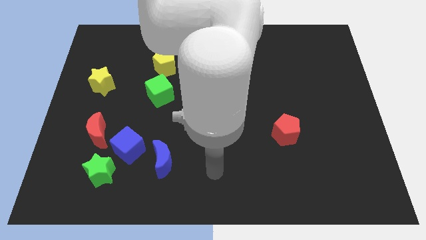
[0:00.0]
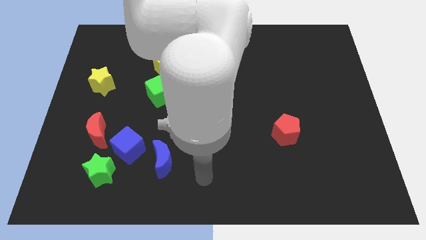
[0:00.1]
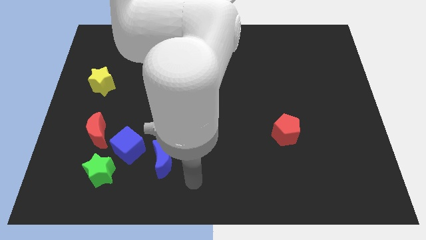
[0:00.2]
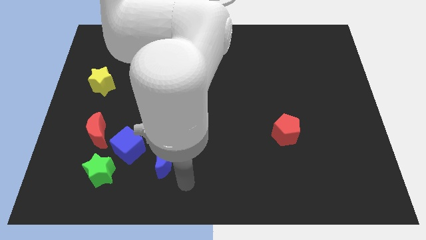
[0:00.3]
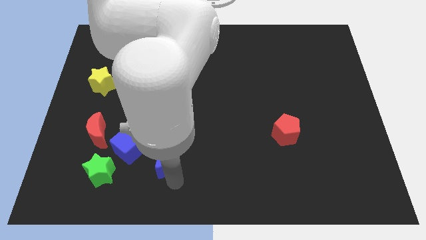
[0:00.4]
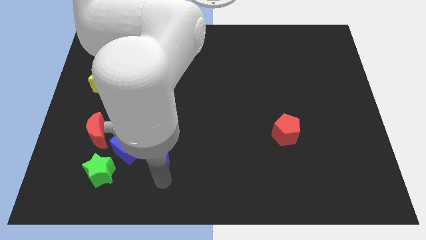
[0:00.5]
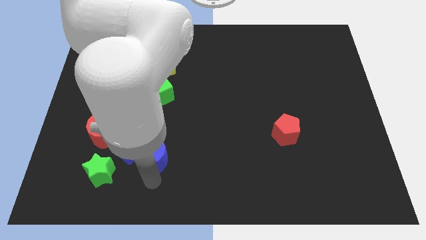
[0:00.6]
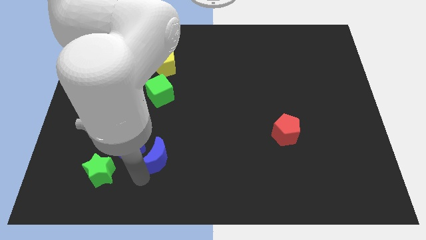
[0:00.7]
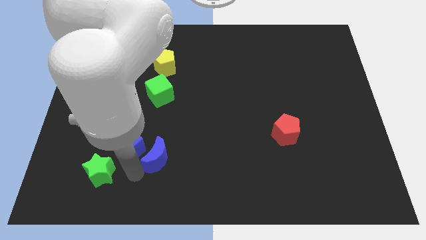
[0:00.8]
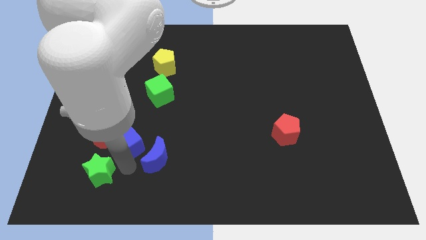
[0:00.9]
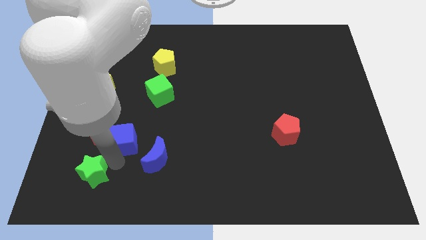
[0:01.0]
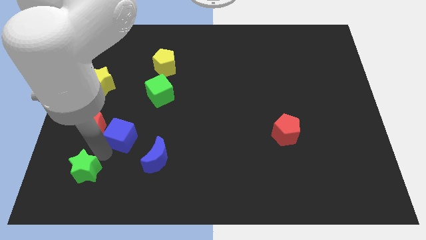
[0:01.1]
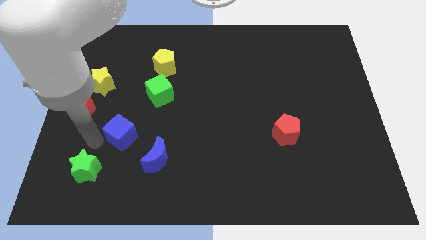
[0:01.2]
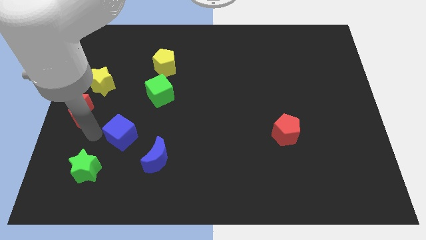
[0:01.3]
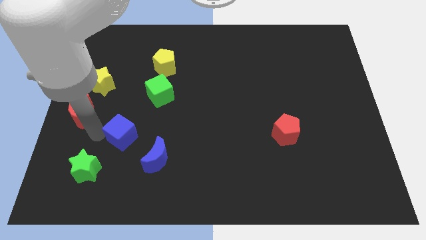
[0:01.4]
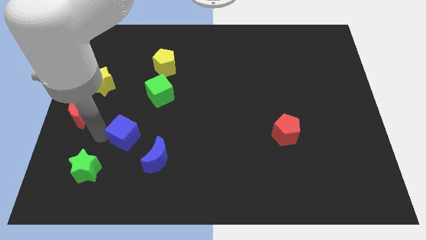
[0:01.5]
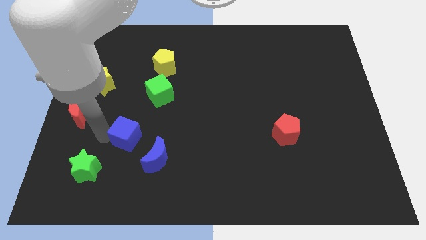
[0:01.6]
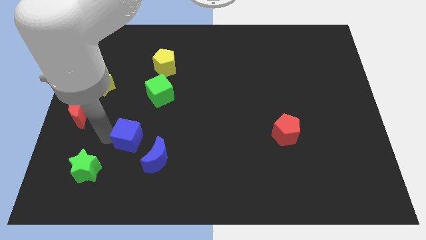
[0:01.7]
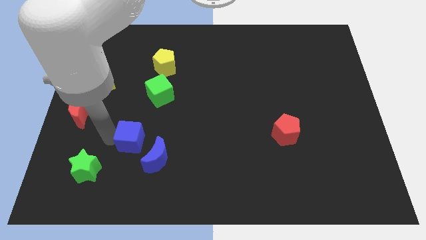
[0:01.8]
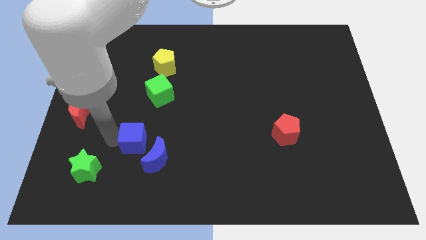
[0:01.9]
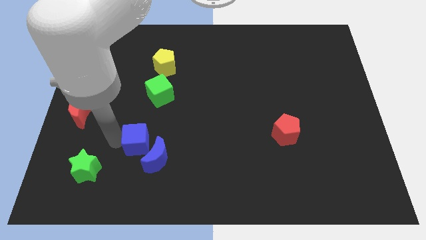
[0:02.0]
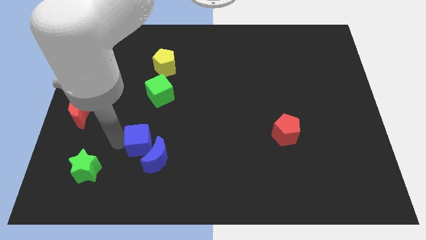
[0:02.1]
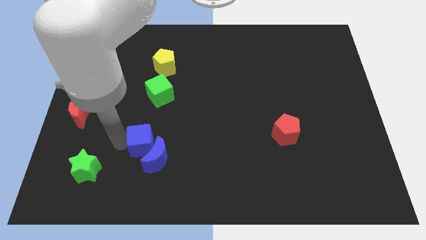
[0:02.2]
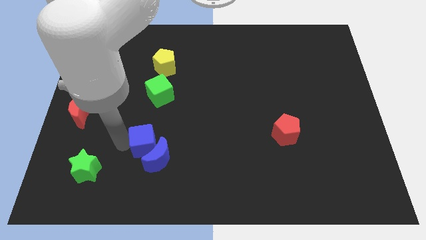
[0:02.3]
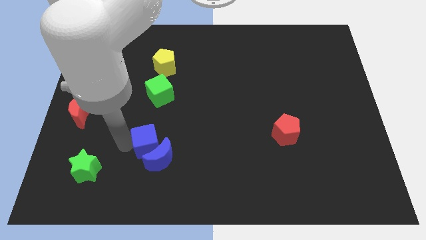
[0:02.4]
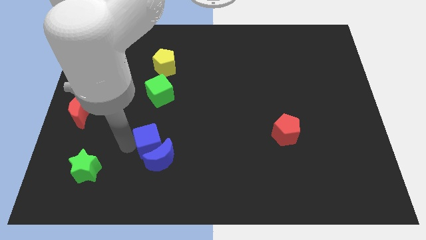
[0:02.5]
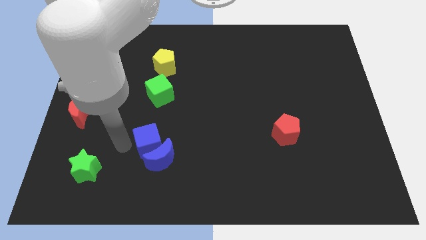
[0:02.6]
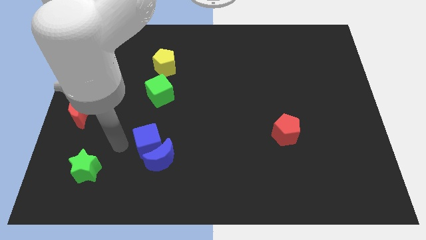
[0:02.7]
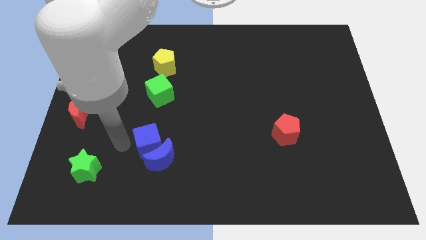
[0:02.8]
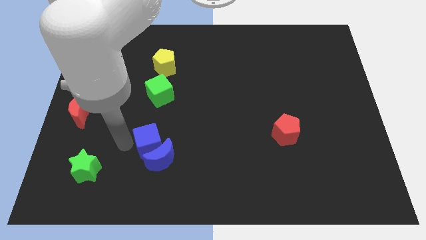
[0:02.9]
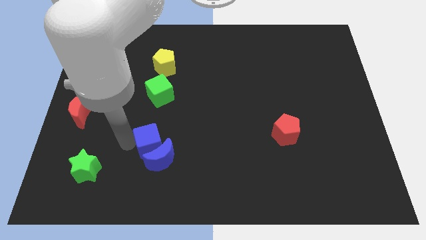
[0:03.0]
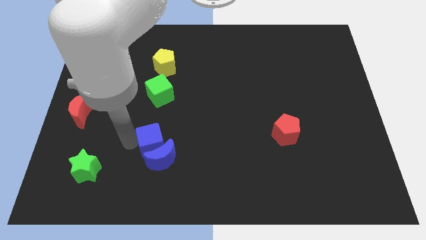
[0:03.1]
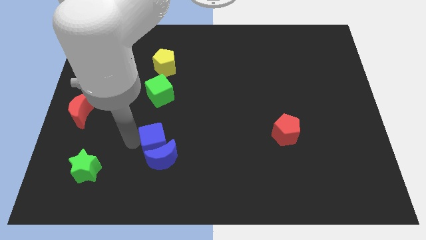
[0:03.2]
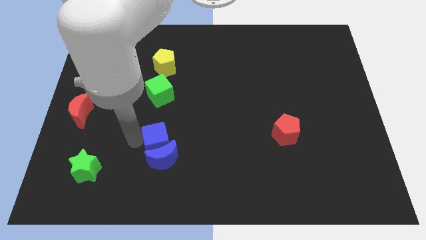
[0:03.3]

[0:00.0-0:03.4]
move the blue cube away from the green star, red moon, and blue moon

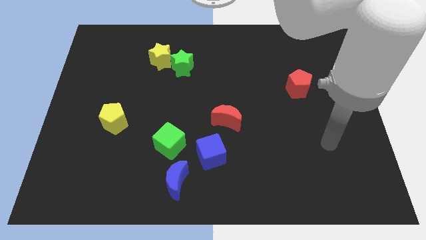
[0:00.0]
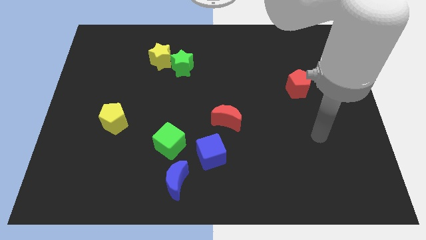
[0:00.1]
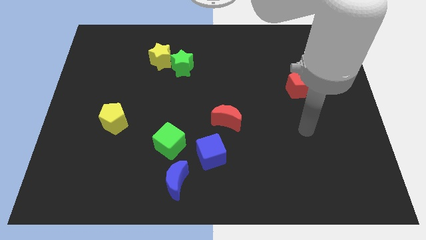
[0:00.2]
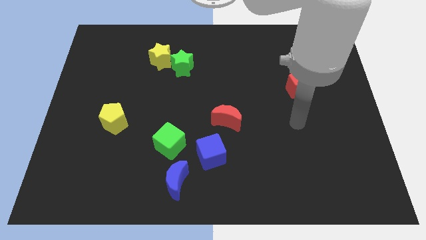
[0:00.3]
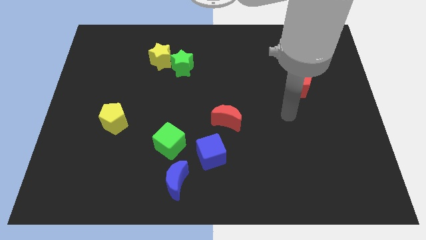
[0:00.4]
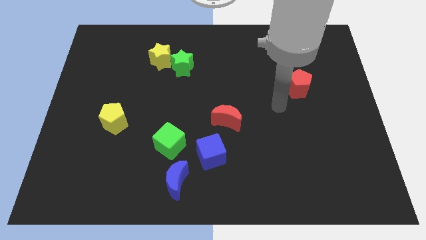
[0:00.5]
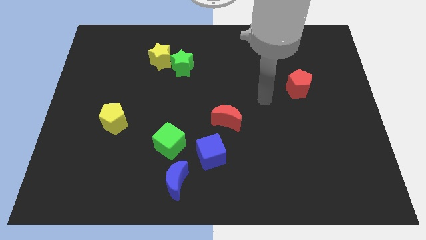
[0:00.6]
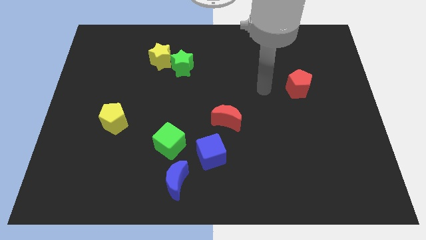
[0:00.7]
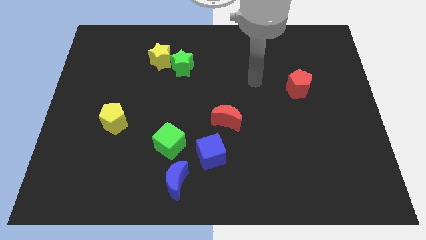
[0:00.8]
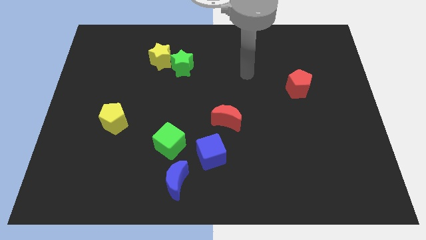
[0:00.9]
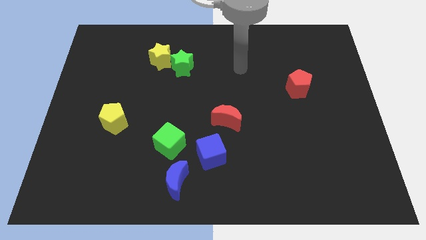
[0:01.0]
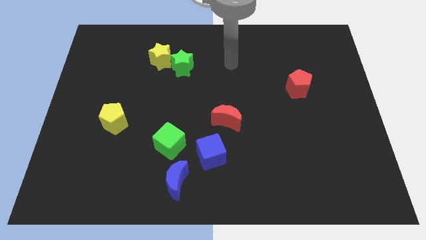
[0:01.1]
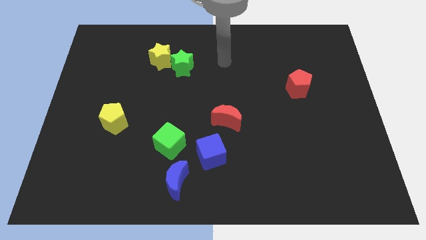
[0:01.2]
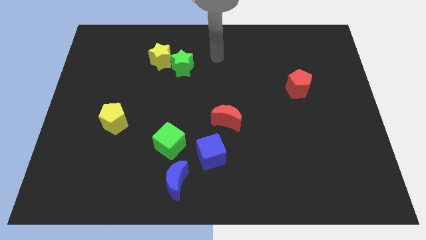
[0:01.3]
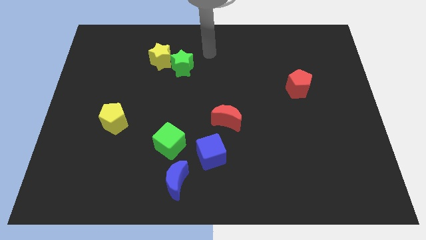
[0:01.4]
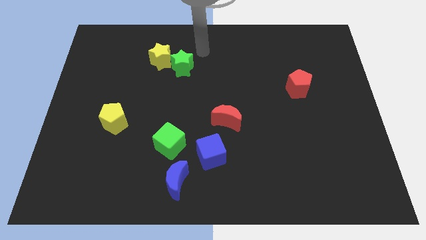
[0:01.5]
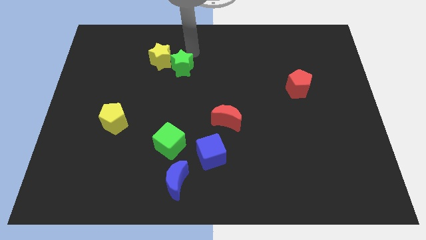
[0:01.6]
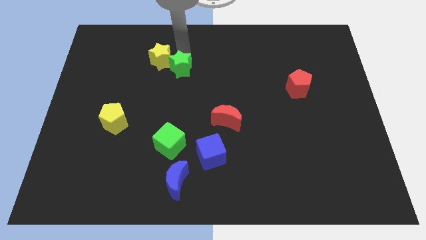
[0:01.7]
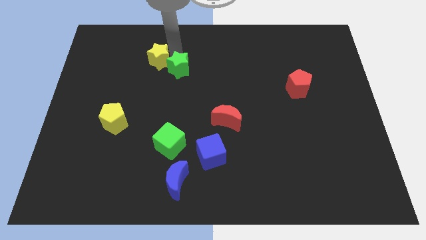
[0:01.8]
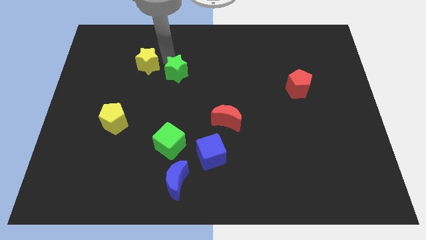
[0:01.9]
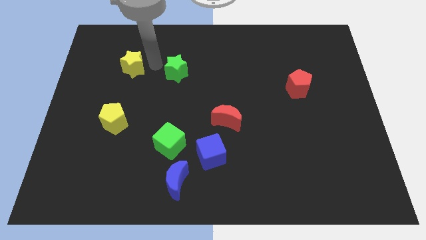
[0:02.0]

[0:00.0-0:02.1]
pull the green star apart from the yellow star

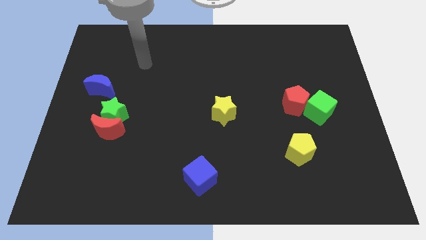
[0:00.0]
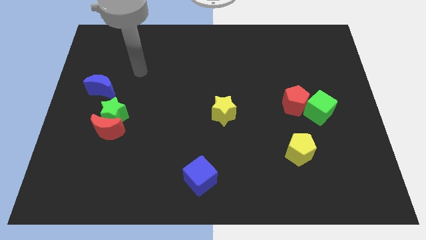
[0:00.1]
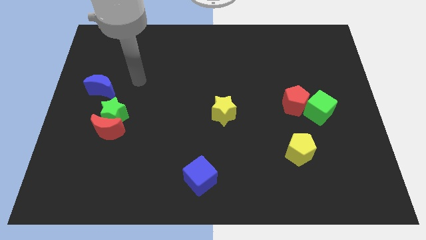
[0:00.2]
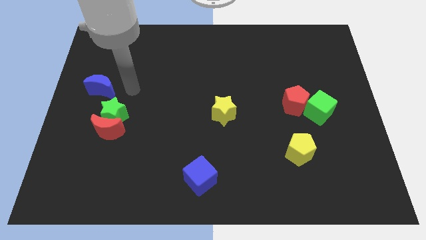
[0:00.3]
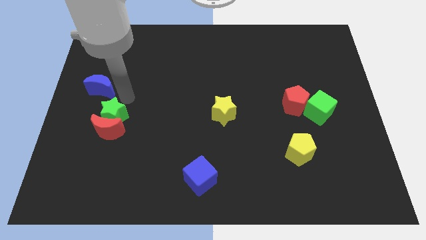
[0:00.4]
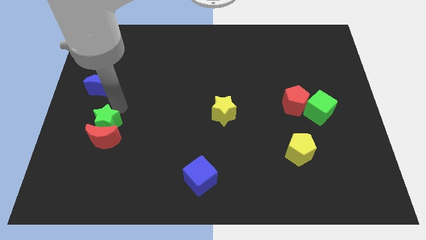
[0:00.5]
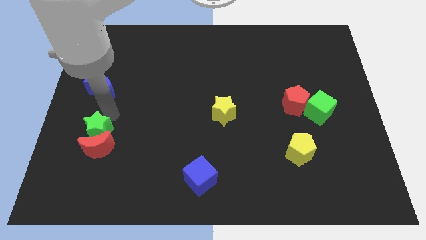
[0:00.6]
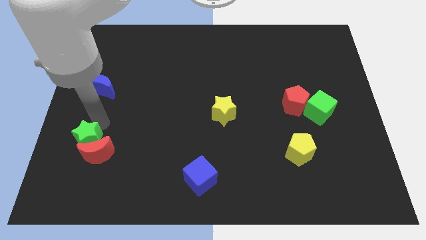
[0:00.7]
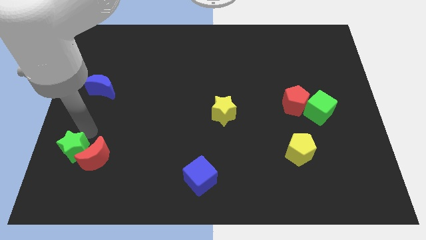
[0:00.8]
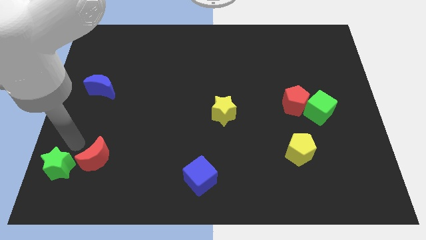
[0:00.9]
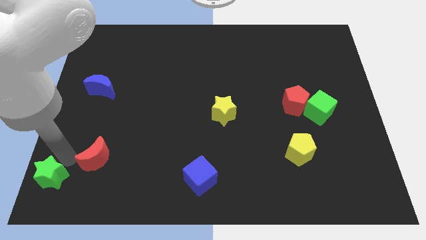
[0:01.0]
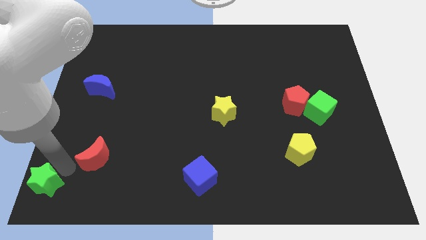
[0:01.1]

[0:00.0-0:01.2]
pull the red moon apart from the green star

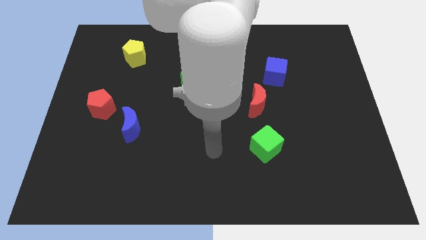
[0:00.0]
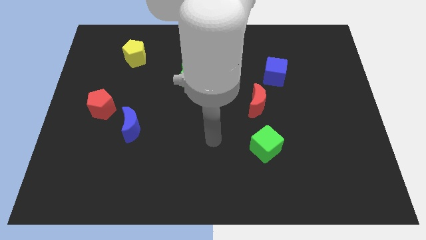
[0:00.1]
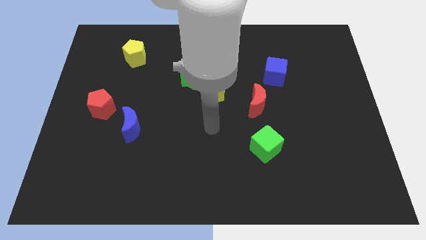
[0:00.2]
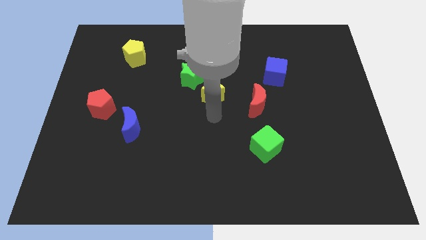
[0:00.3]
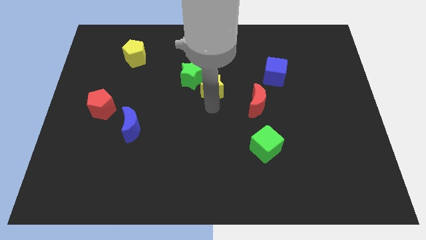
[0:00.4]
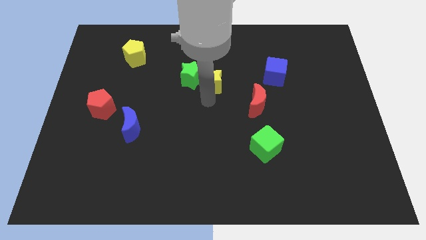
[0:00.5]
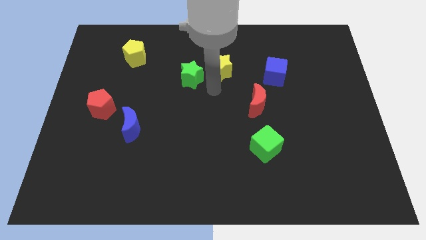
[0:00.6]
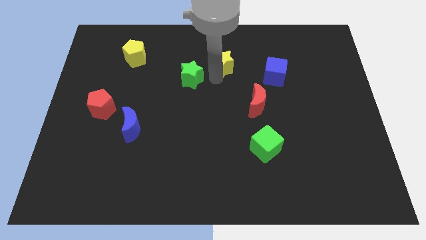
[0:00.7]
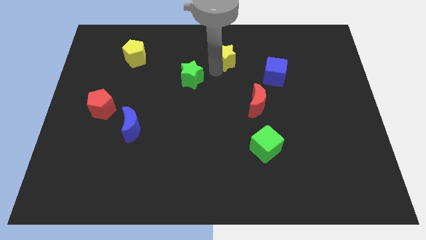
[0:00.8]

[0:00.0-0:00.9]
separate the green star from the yellow star

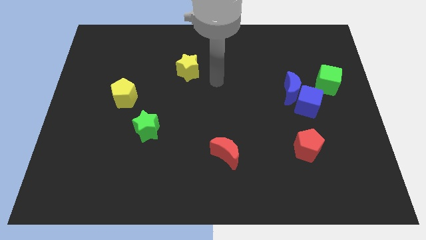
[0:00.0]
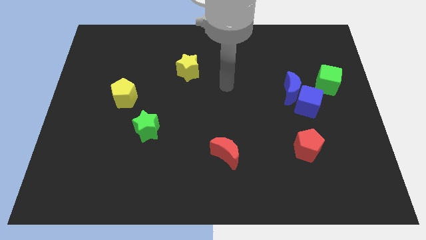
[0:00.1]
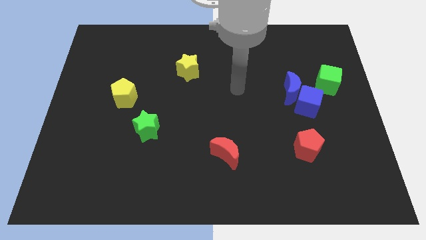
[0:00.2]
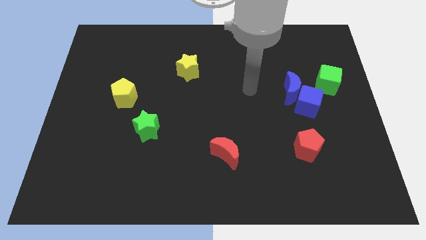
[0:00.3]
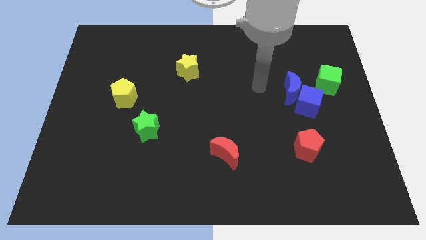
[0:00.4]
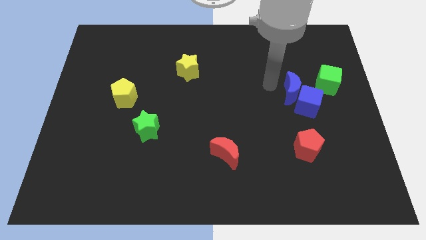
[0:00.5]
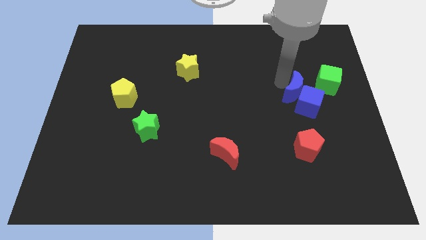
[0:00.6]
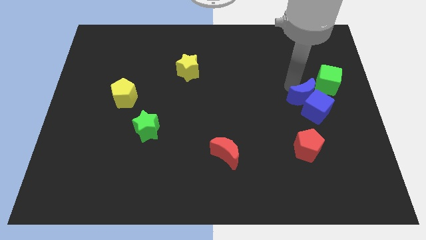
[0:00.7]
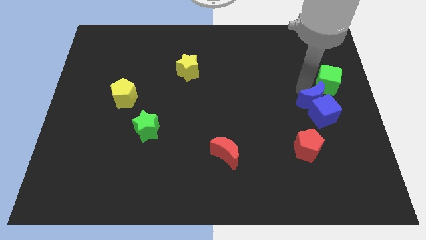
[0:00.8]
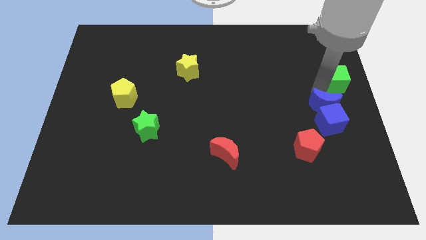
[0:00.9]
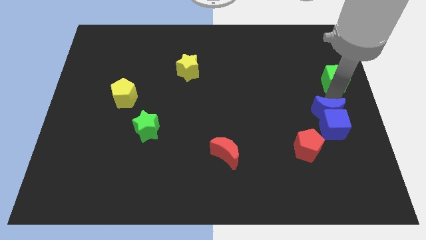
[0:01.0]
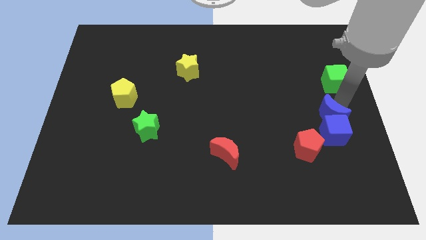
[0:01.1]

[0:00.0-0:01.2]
separate the blue cube from the blue moon and green cube

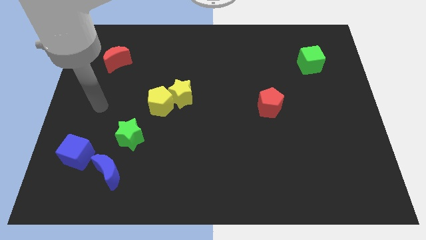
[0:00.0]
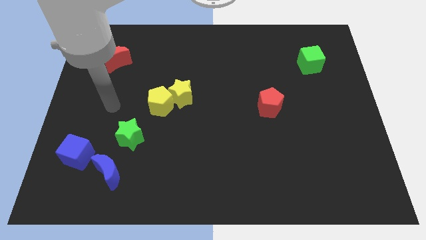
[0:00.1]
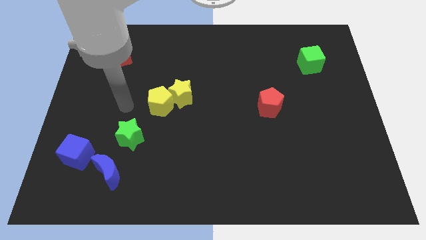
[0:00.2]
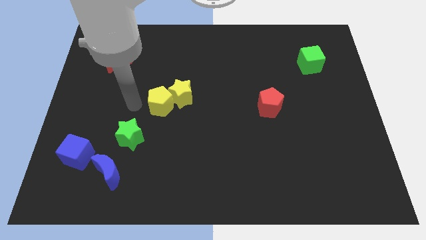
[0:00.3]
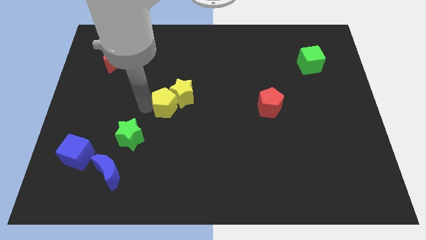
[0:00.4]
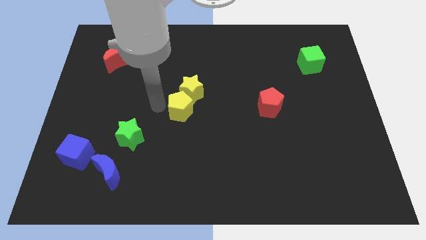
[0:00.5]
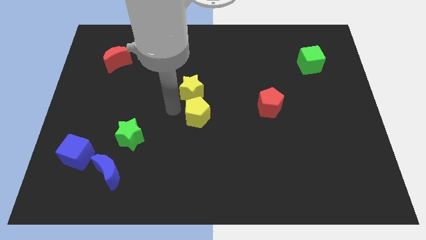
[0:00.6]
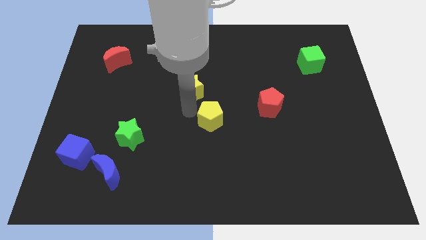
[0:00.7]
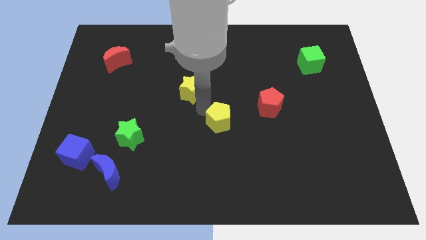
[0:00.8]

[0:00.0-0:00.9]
pull the yellow star apart from the yellow pentagon
